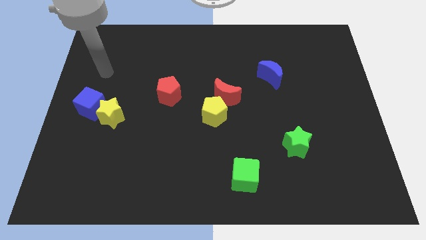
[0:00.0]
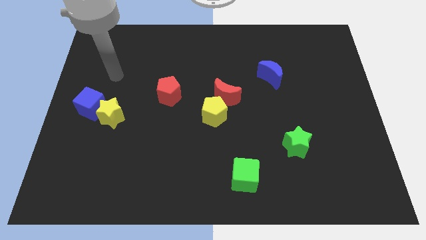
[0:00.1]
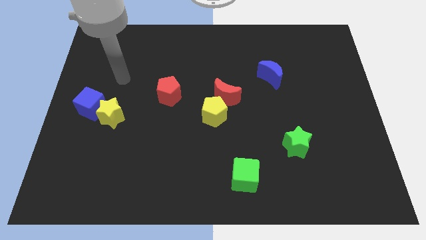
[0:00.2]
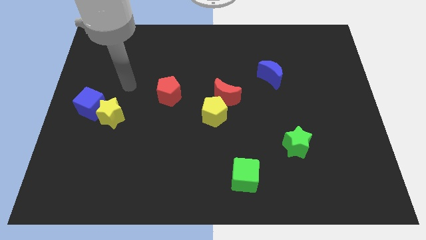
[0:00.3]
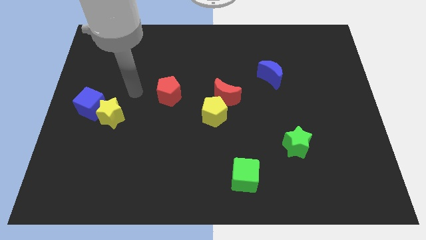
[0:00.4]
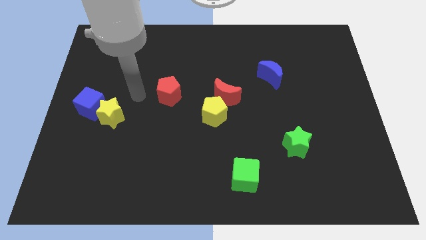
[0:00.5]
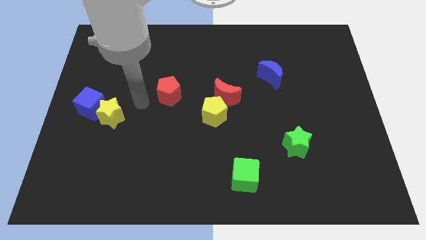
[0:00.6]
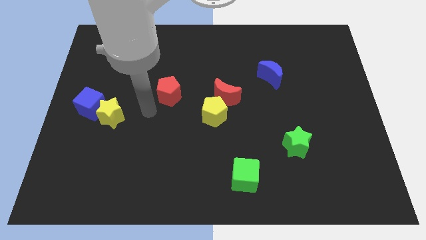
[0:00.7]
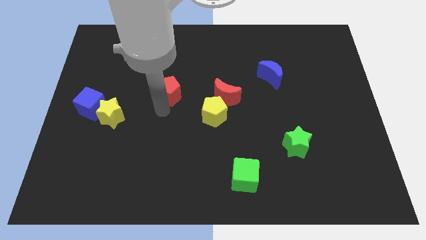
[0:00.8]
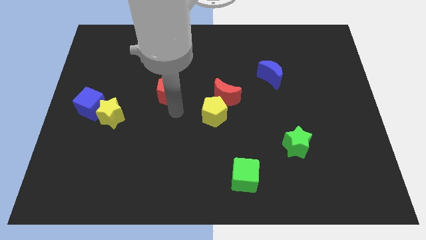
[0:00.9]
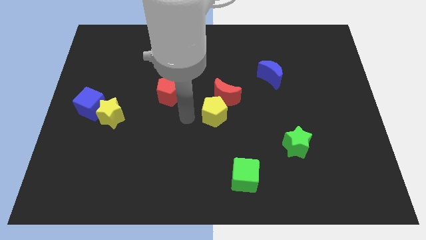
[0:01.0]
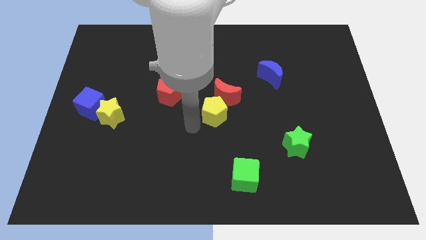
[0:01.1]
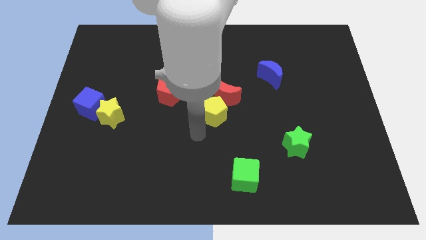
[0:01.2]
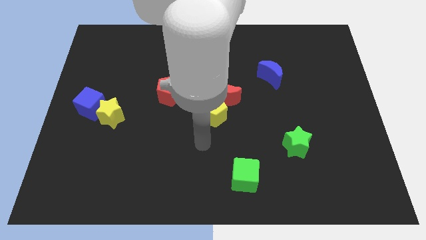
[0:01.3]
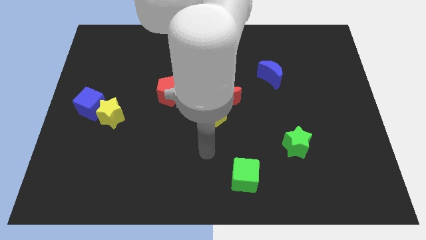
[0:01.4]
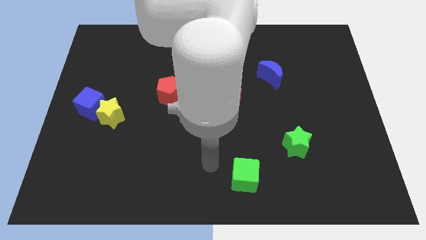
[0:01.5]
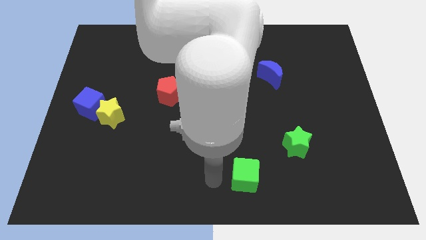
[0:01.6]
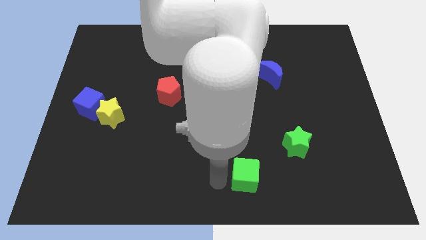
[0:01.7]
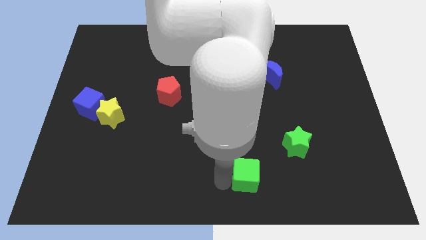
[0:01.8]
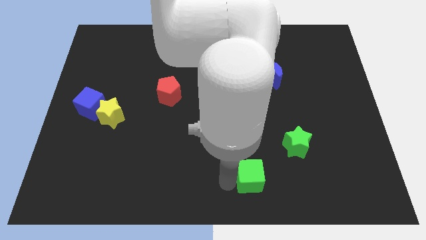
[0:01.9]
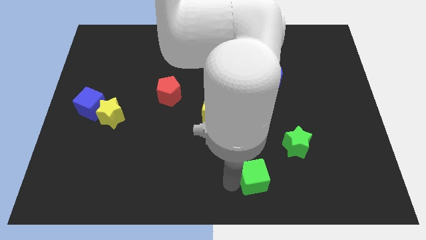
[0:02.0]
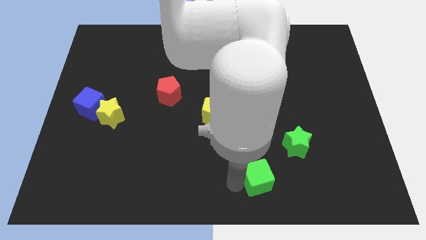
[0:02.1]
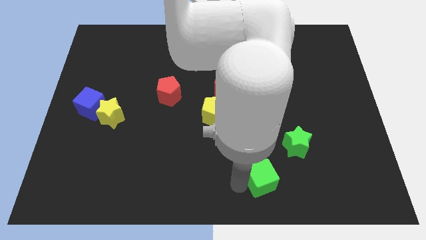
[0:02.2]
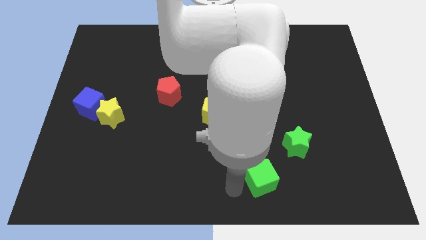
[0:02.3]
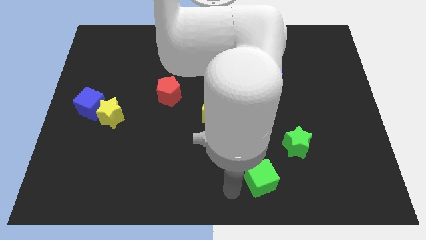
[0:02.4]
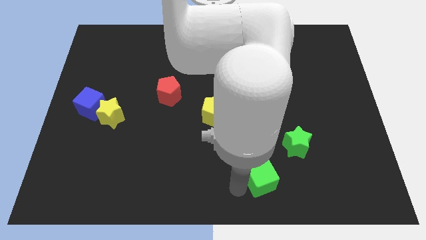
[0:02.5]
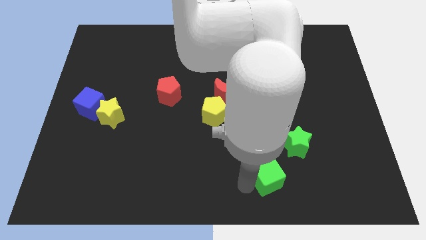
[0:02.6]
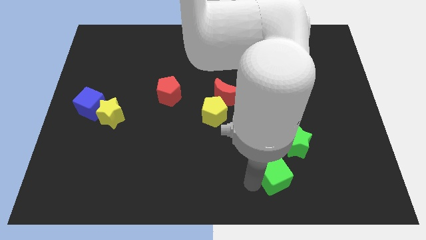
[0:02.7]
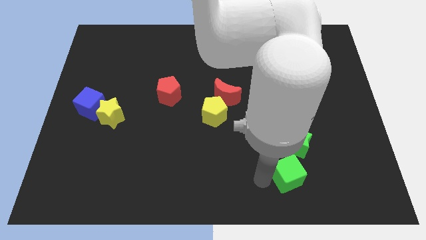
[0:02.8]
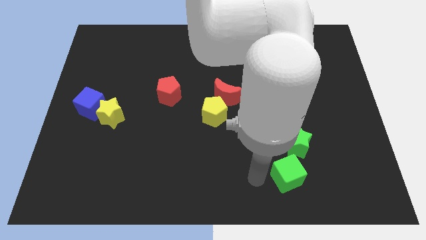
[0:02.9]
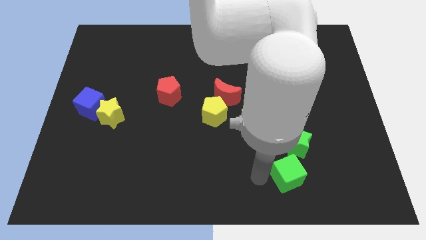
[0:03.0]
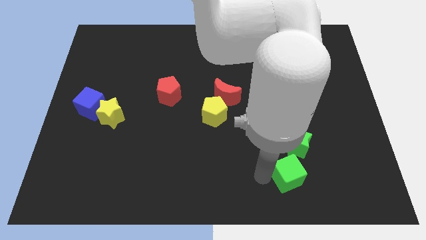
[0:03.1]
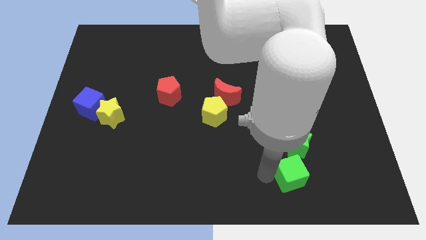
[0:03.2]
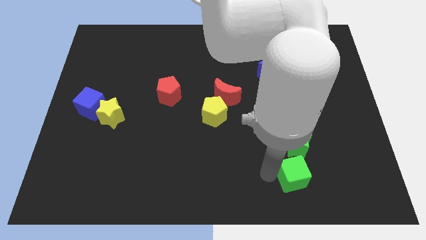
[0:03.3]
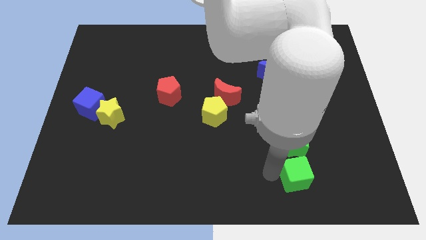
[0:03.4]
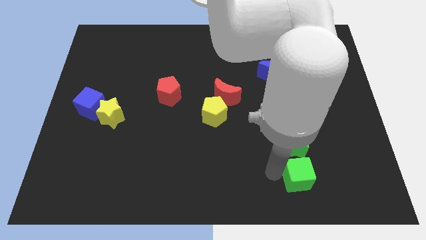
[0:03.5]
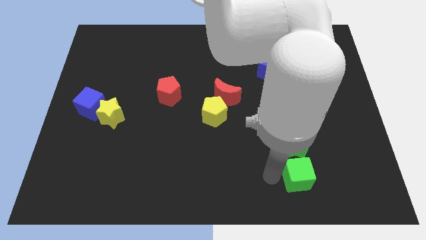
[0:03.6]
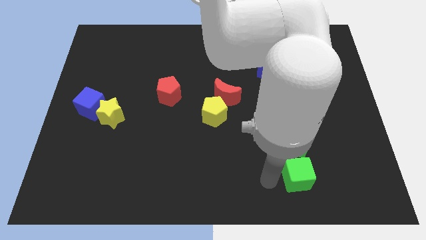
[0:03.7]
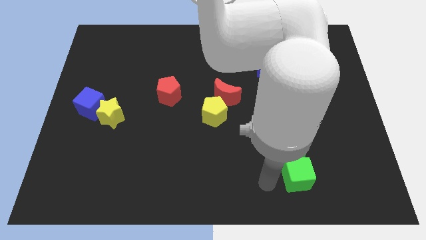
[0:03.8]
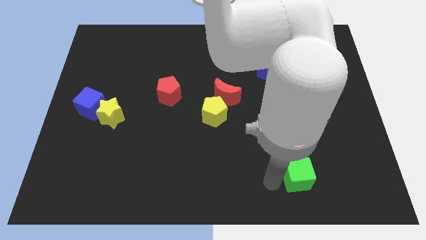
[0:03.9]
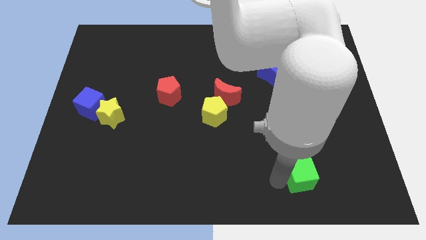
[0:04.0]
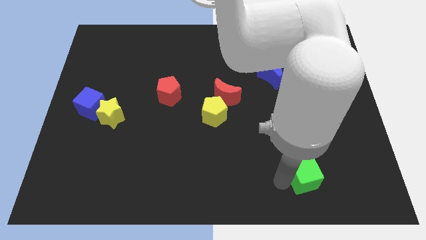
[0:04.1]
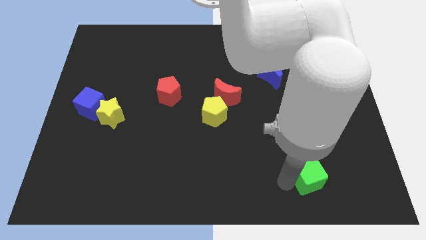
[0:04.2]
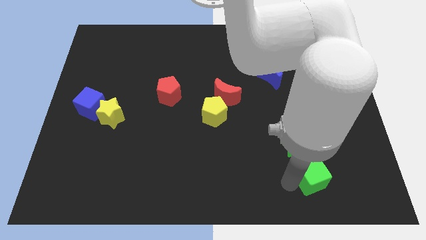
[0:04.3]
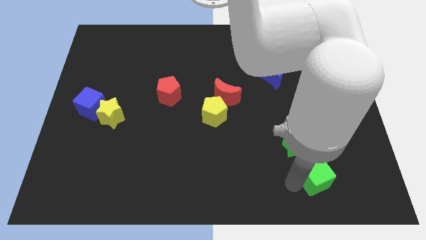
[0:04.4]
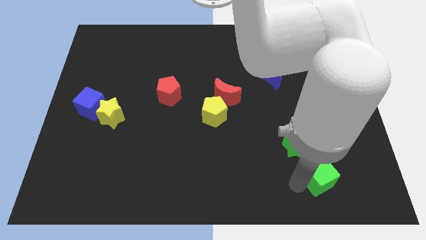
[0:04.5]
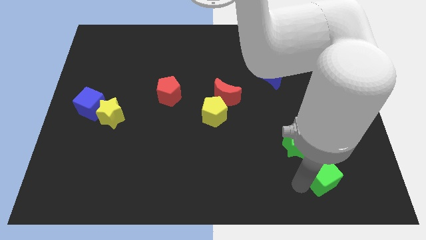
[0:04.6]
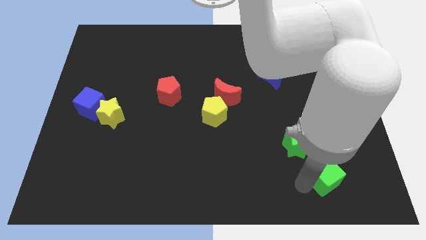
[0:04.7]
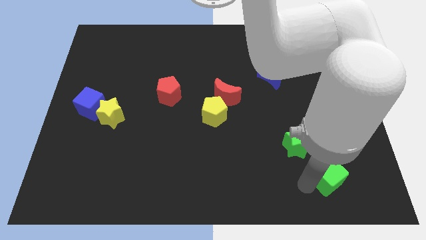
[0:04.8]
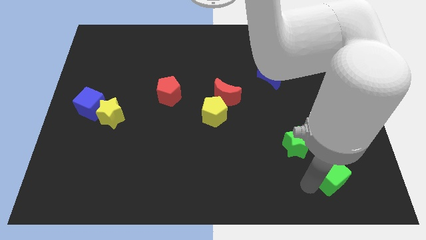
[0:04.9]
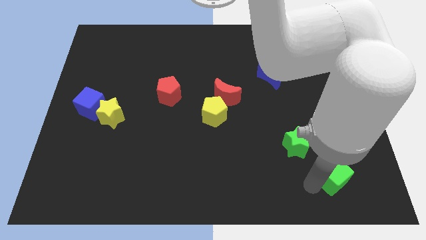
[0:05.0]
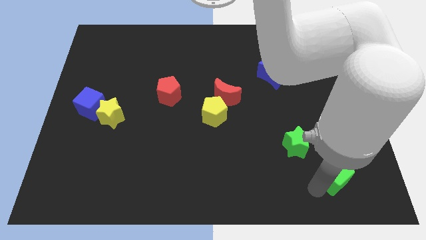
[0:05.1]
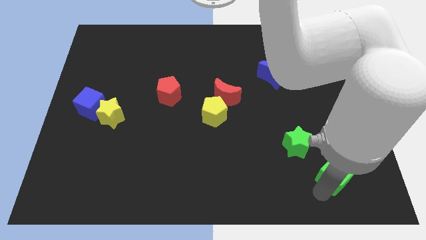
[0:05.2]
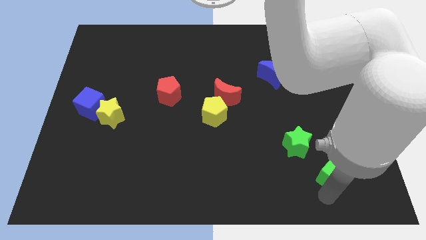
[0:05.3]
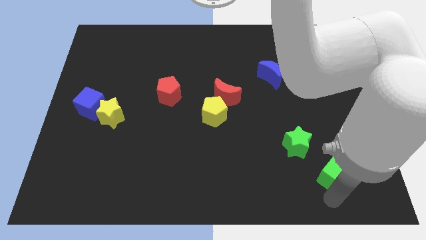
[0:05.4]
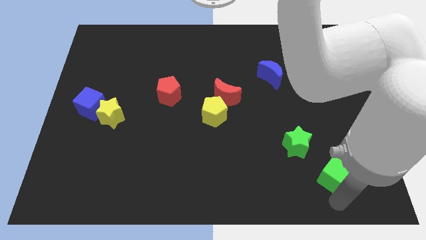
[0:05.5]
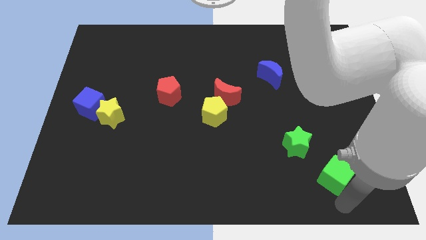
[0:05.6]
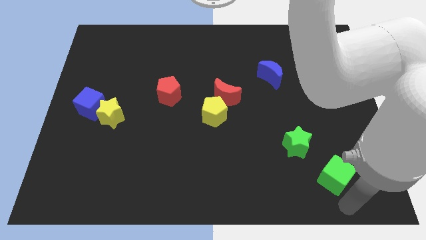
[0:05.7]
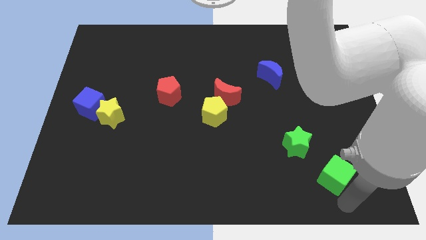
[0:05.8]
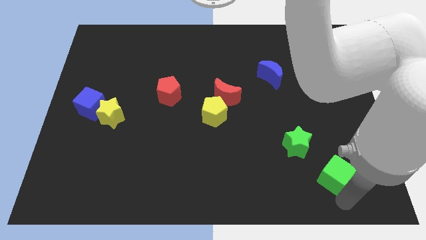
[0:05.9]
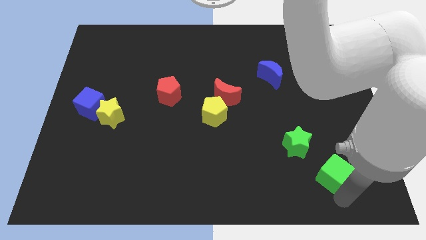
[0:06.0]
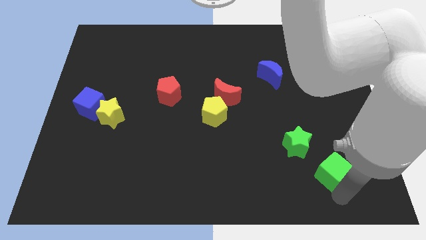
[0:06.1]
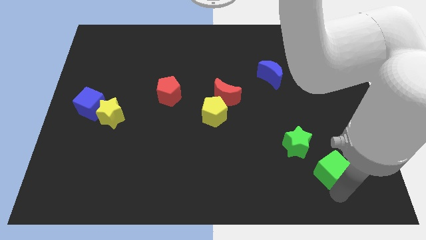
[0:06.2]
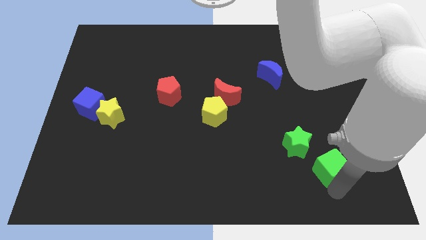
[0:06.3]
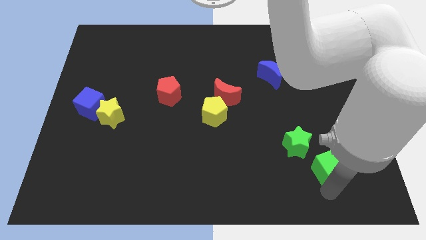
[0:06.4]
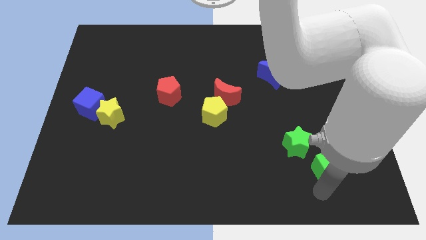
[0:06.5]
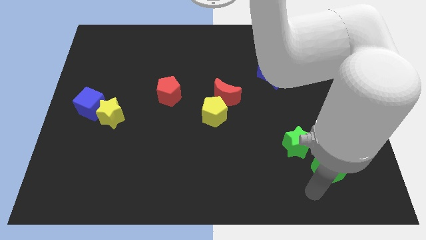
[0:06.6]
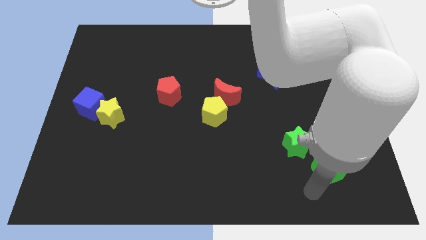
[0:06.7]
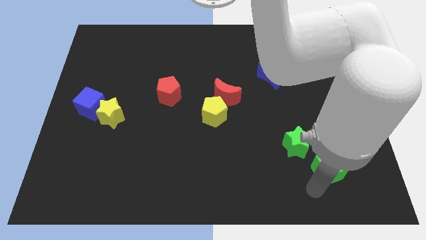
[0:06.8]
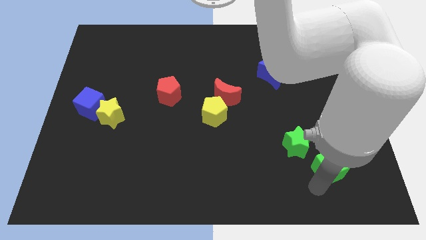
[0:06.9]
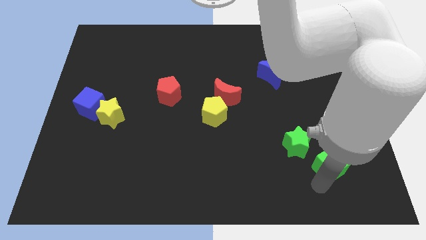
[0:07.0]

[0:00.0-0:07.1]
slide the green cube to the right side of the green star
